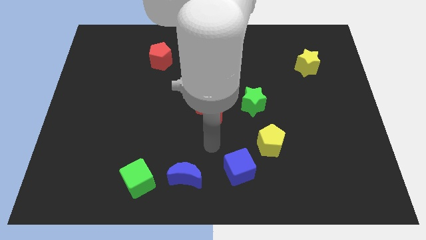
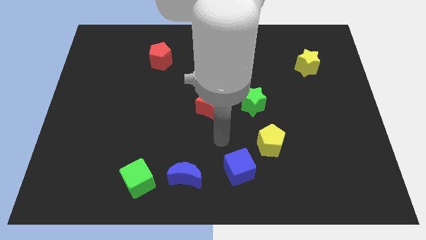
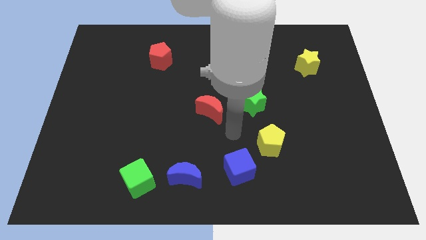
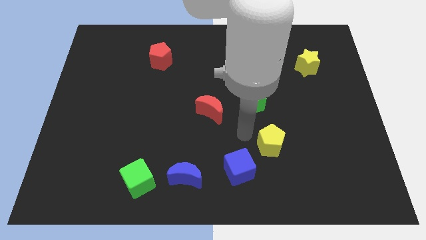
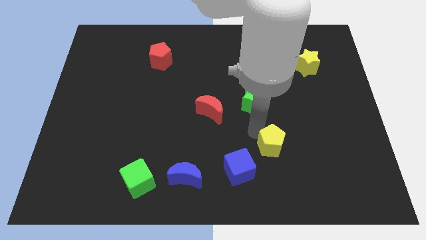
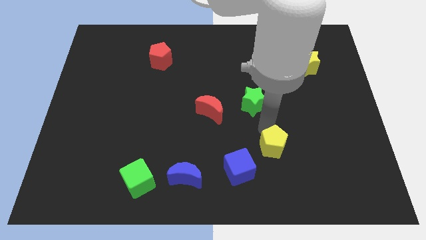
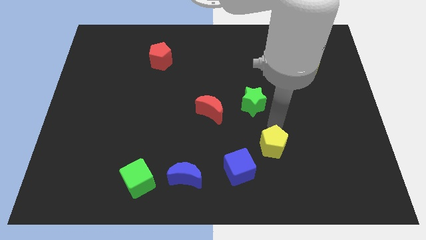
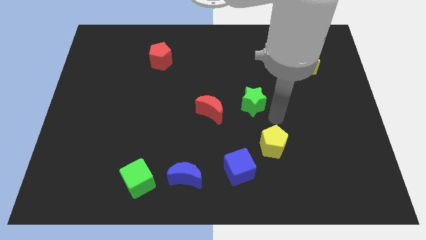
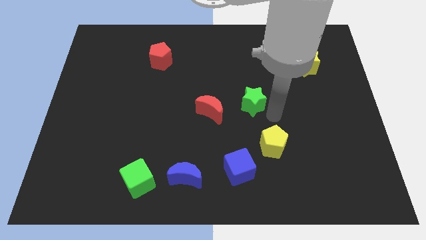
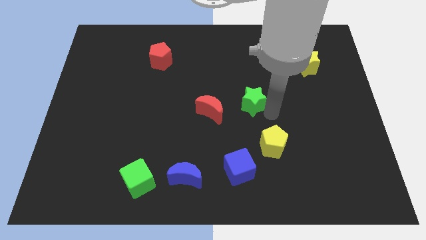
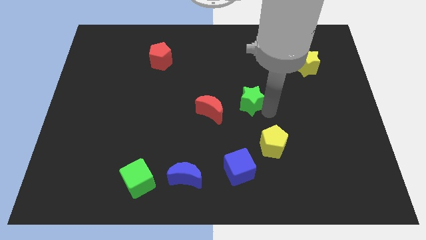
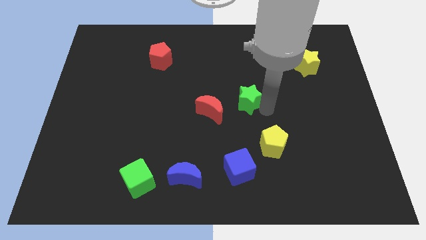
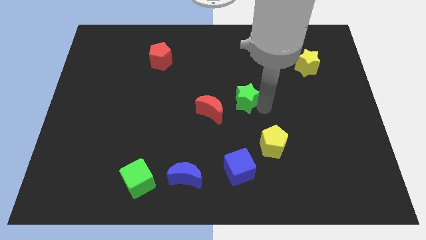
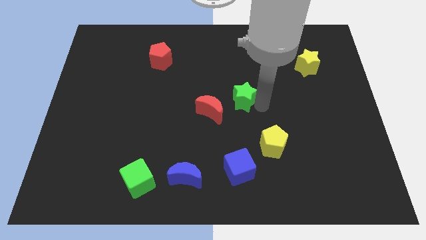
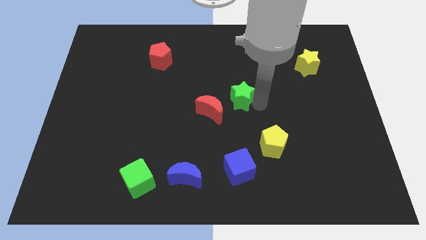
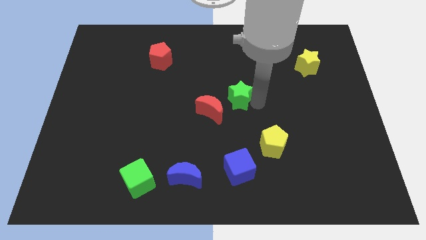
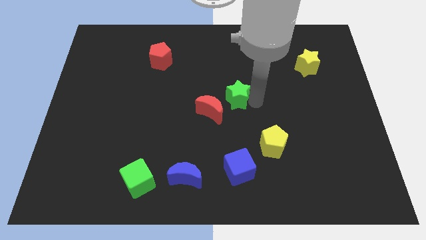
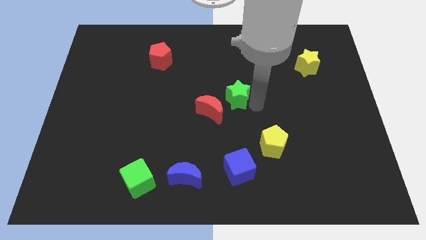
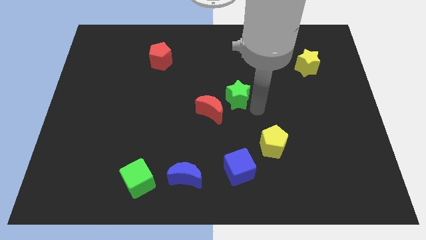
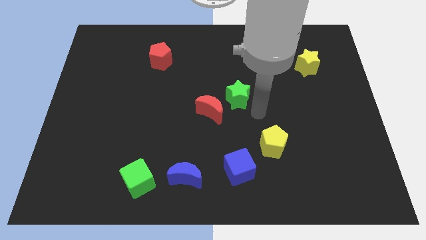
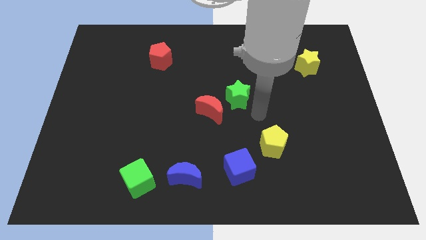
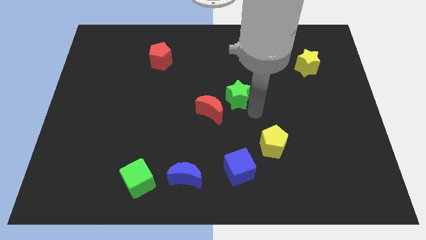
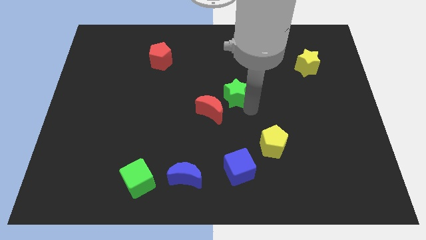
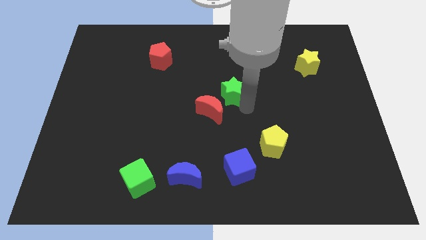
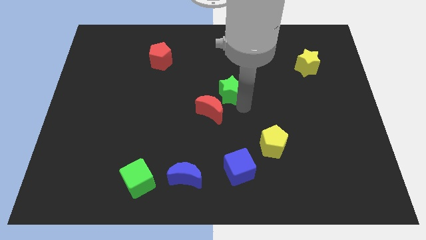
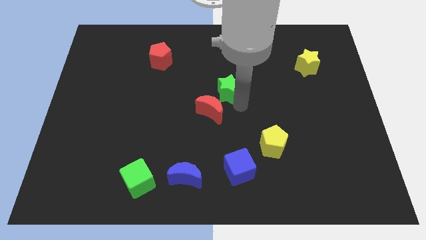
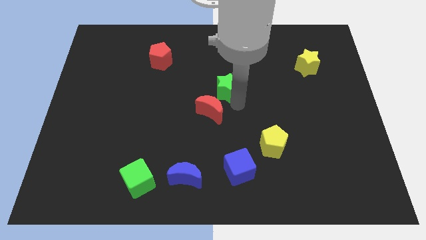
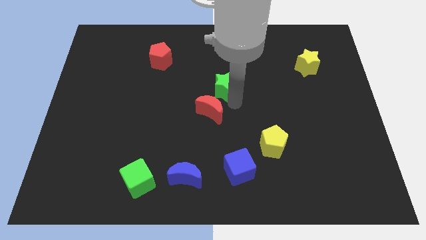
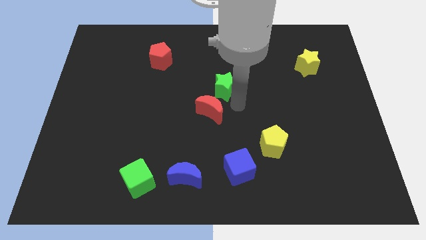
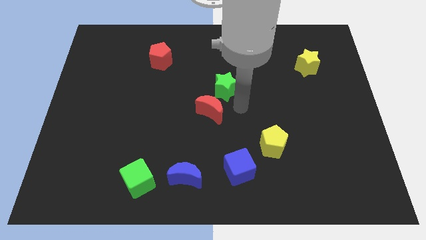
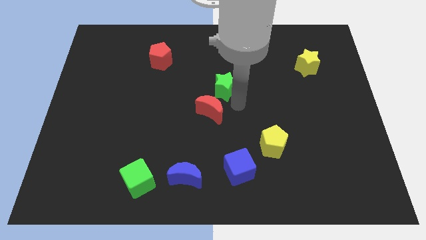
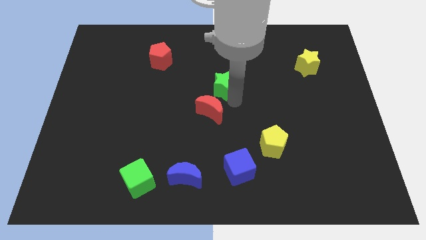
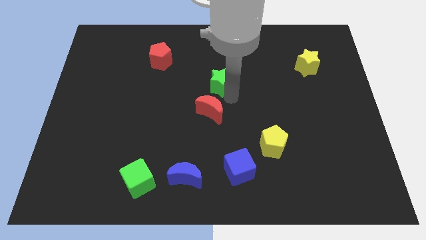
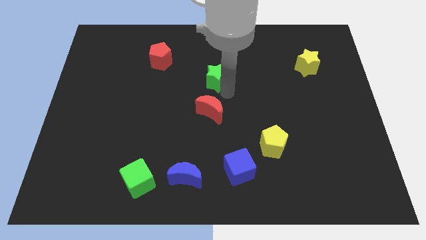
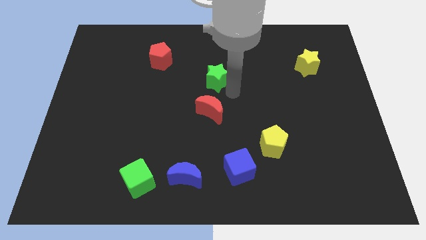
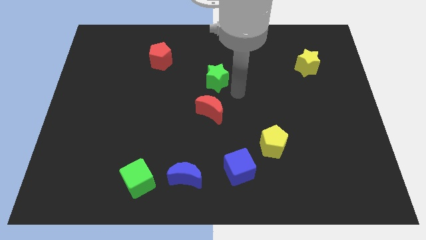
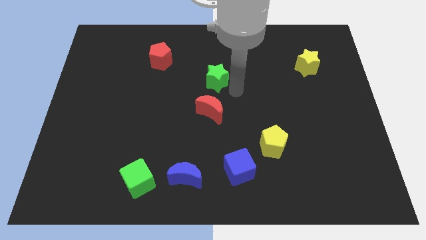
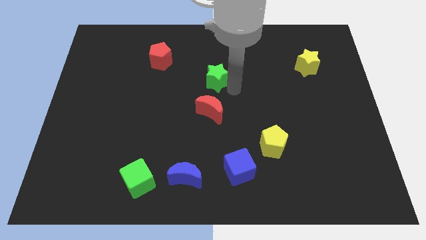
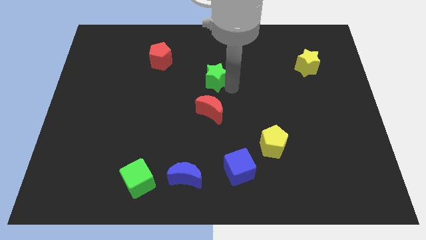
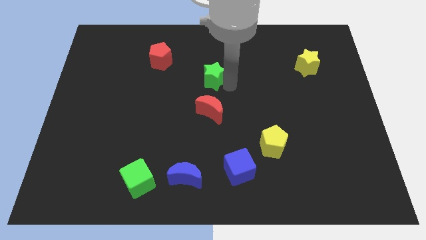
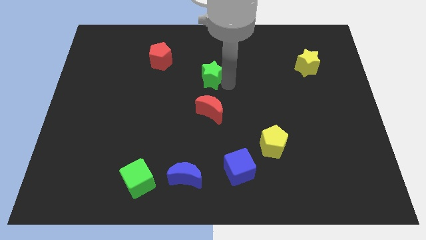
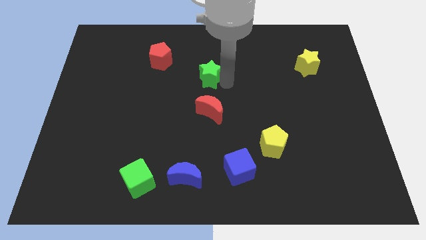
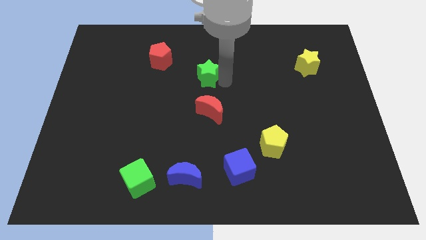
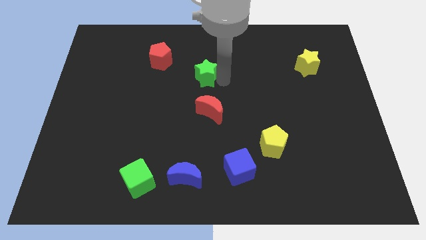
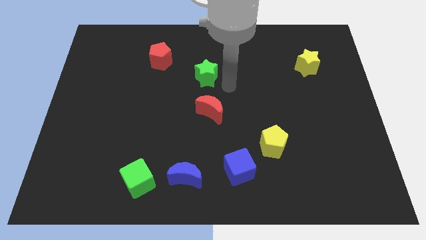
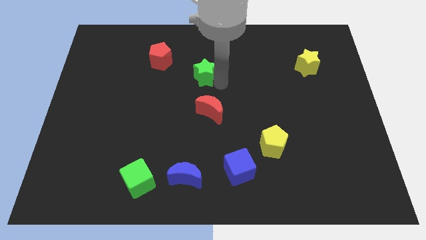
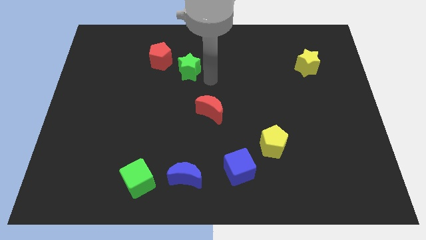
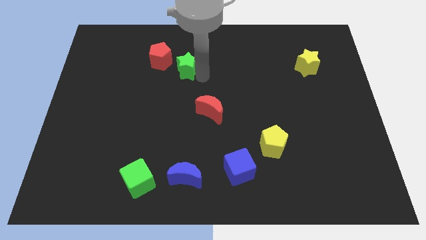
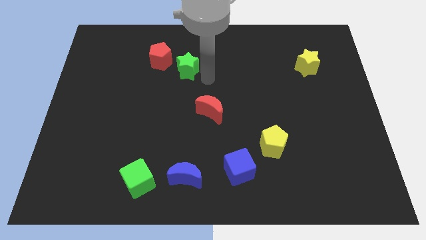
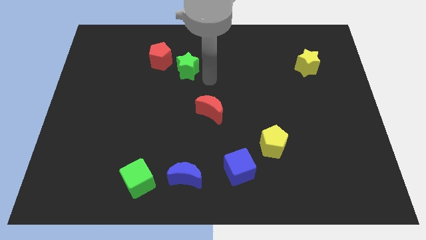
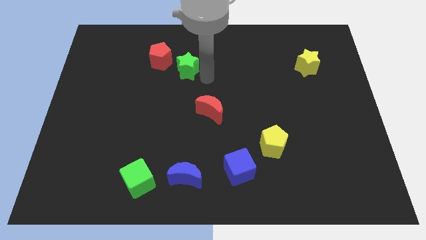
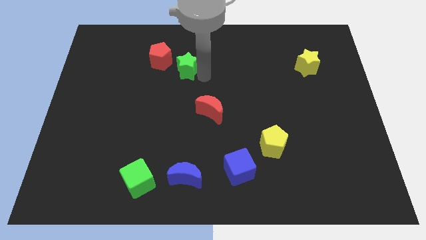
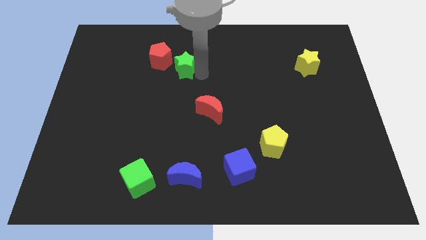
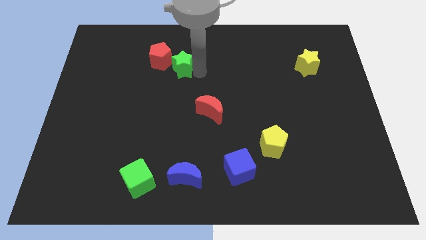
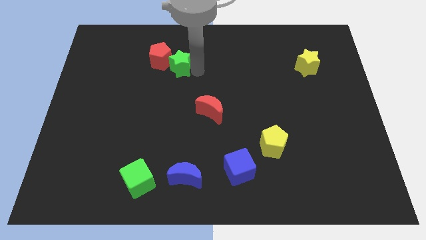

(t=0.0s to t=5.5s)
put the green star towards the red pentagon

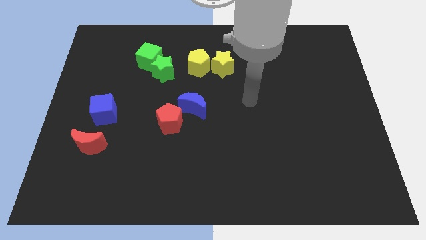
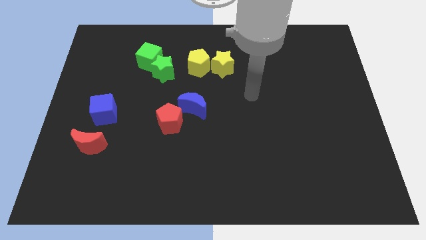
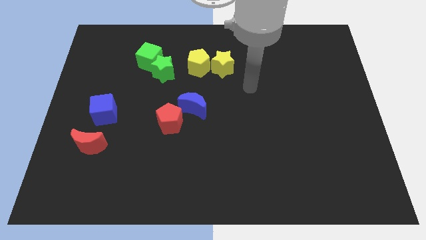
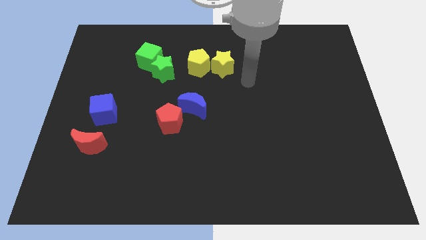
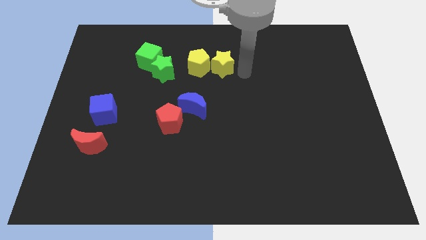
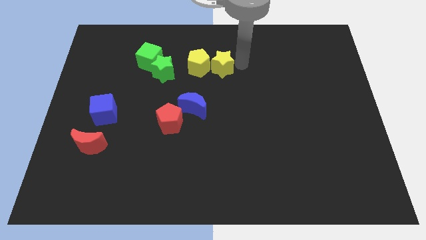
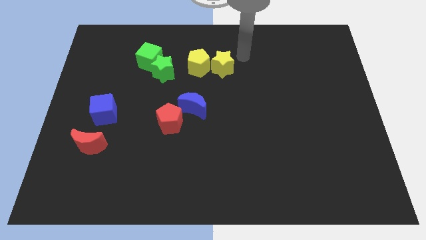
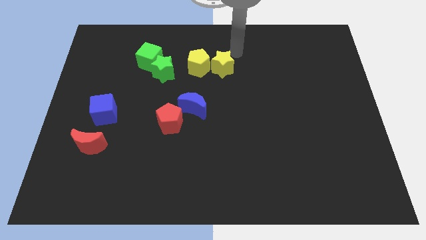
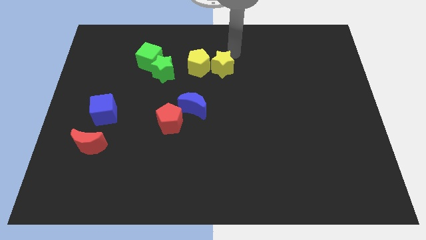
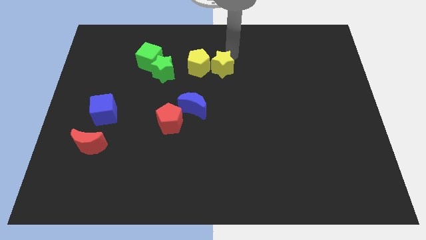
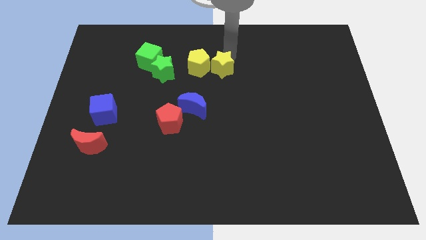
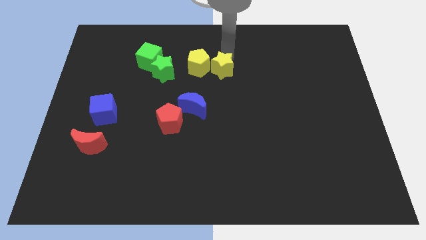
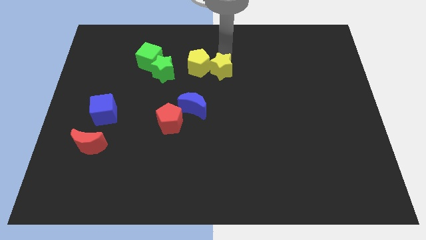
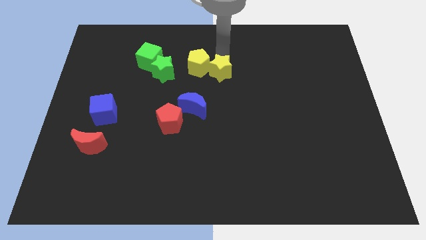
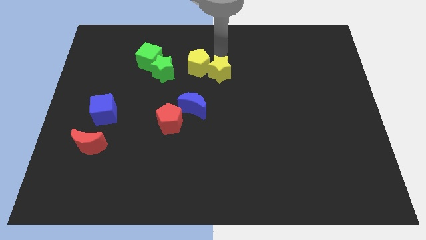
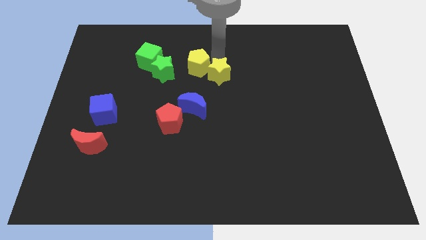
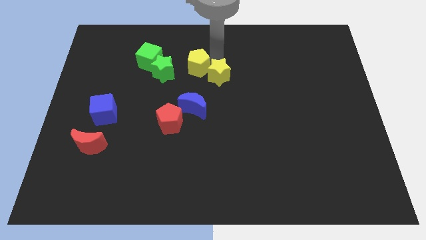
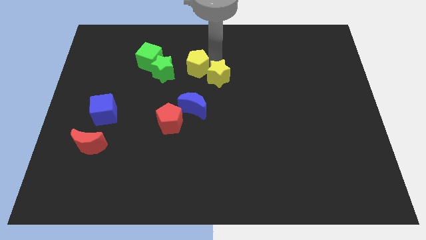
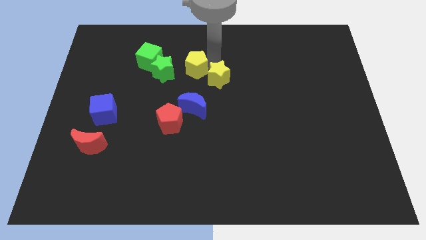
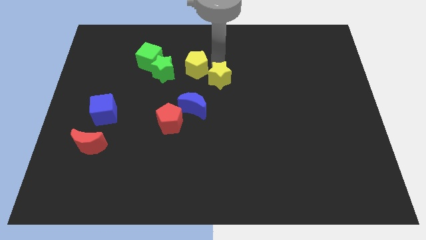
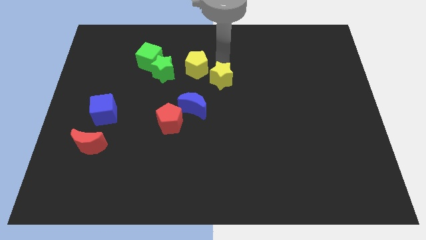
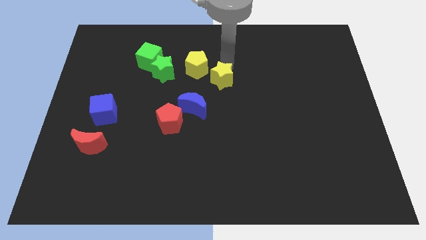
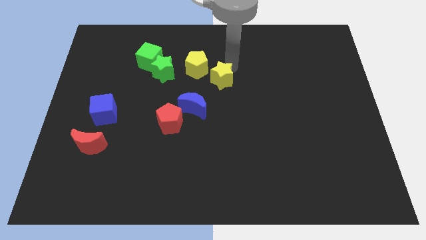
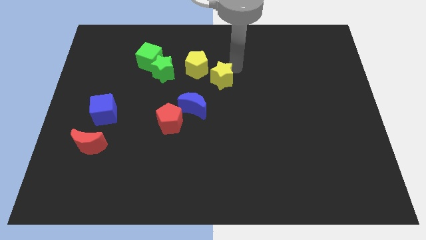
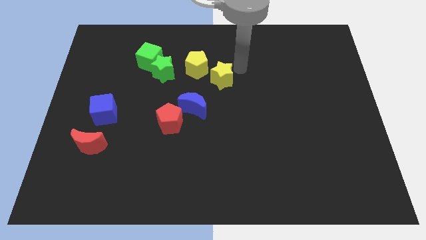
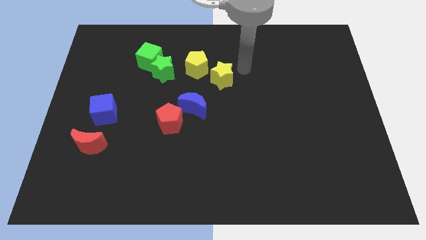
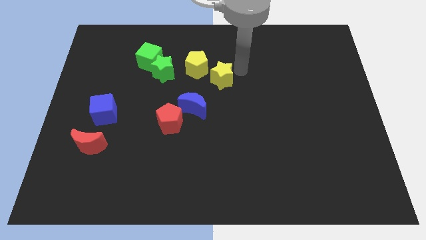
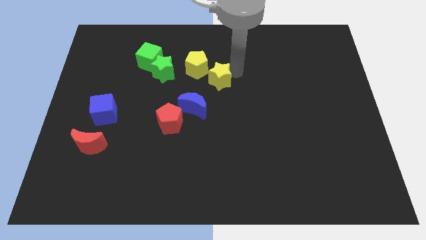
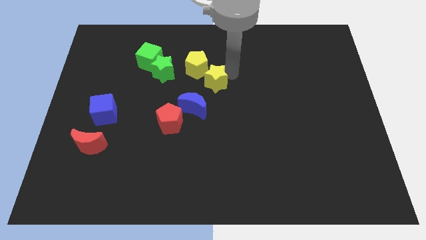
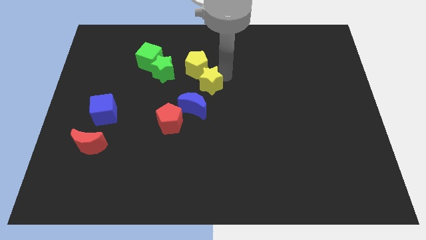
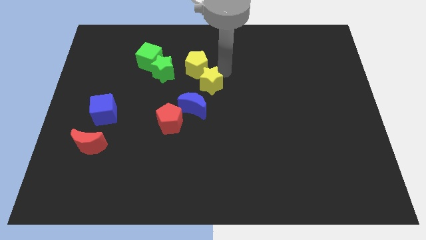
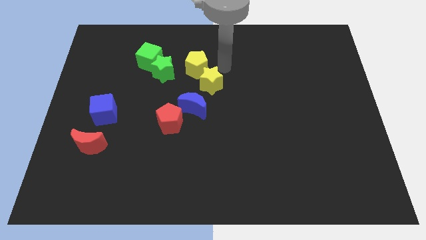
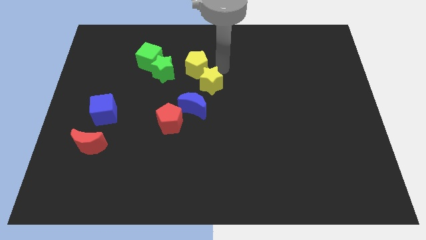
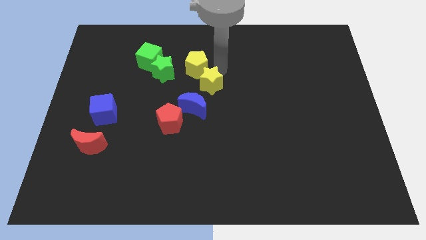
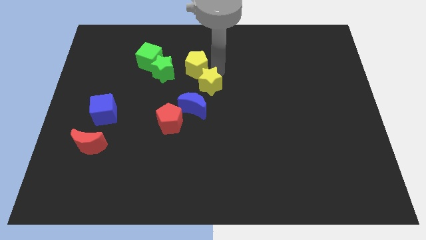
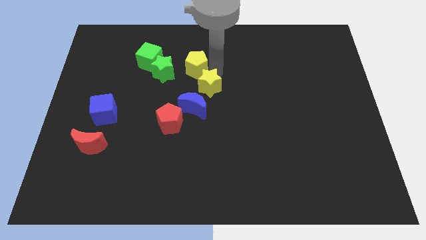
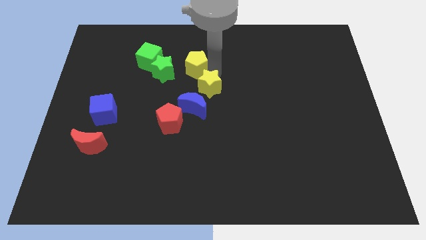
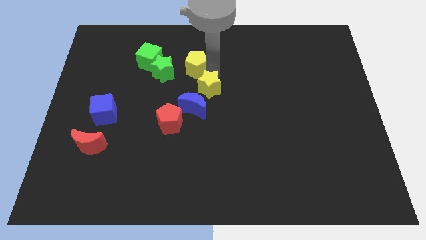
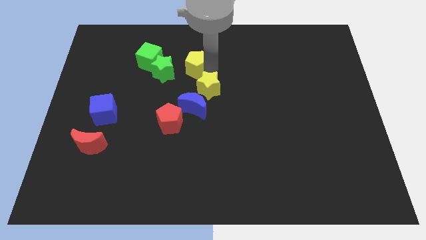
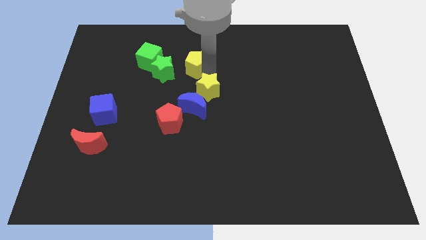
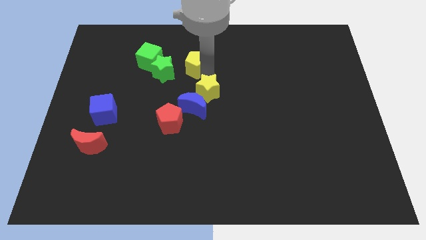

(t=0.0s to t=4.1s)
push the yellow star towards the blue moon
